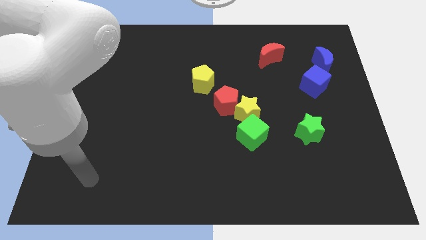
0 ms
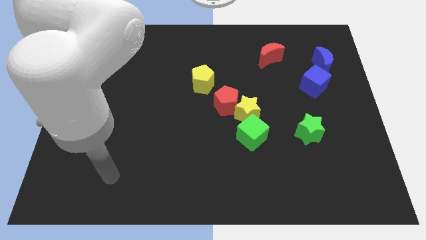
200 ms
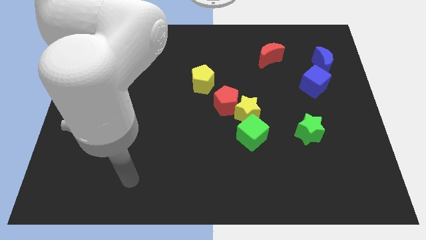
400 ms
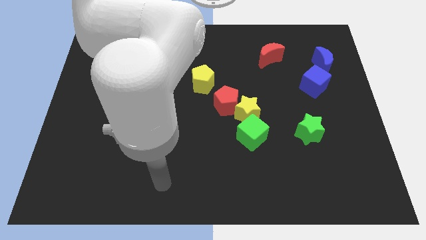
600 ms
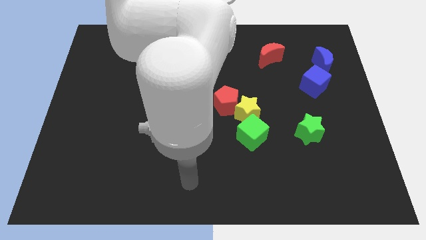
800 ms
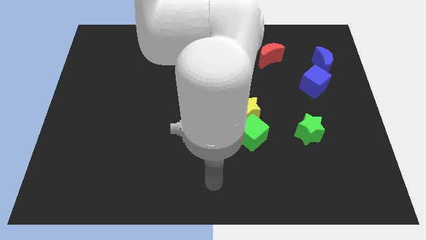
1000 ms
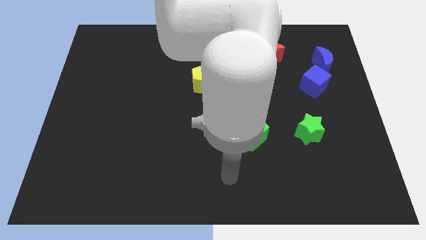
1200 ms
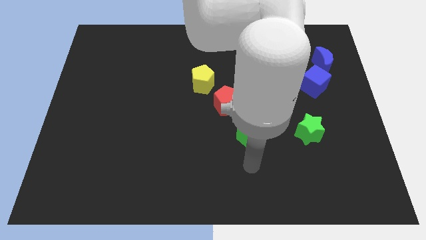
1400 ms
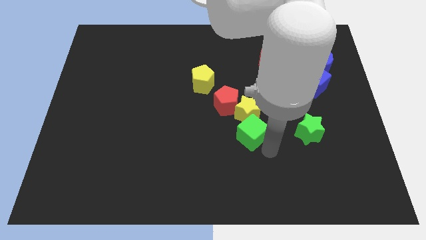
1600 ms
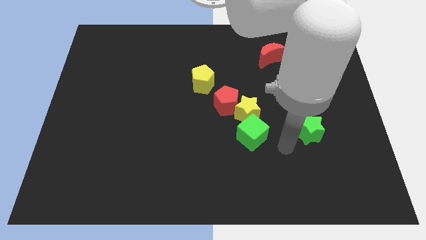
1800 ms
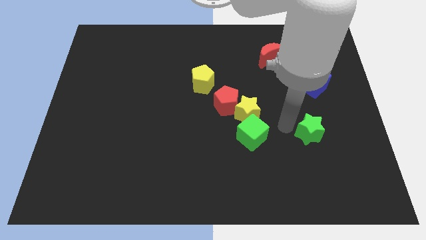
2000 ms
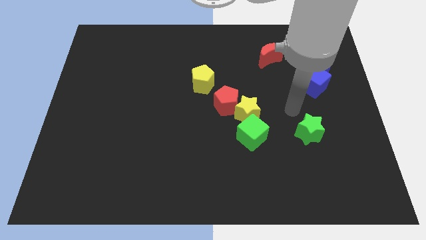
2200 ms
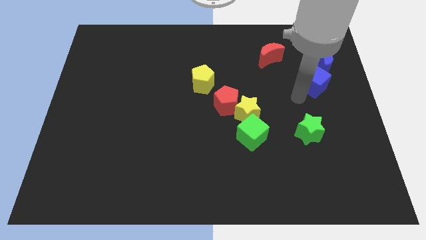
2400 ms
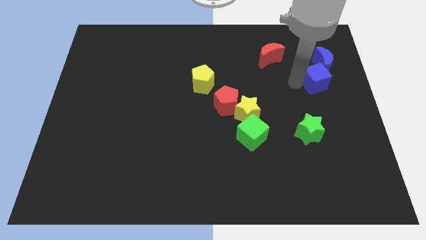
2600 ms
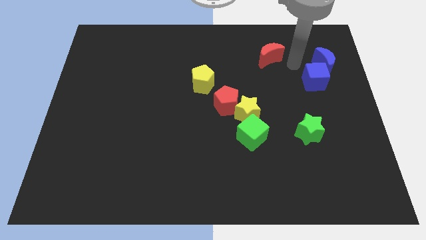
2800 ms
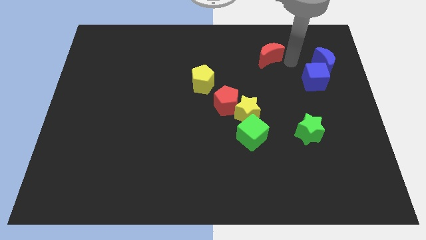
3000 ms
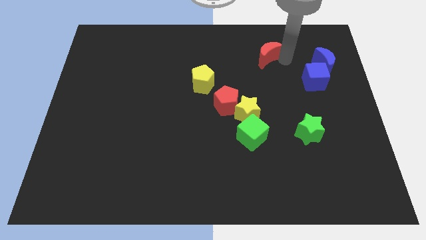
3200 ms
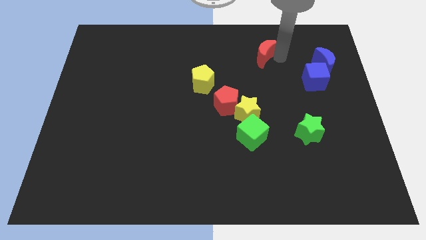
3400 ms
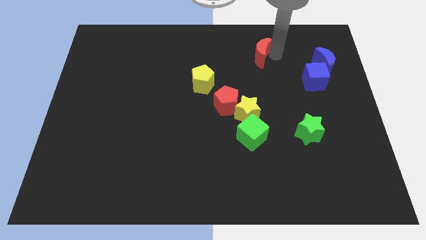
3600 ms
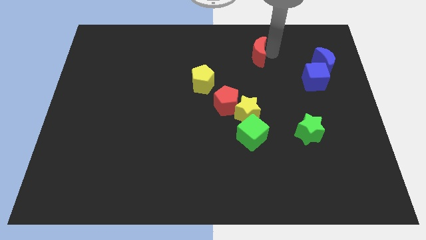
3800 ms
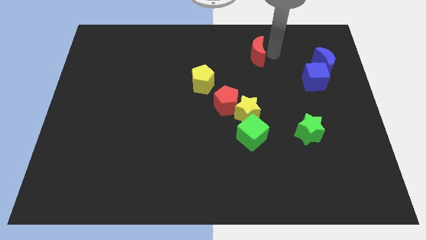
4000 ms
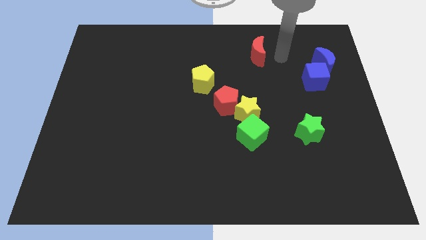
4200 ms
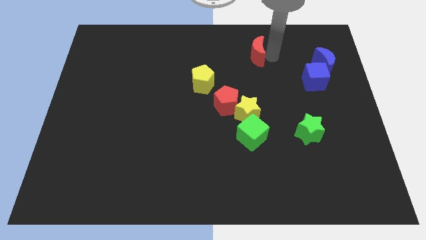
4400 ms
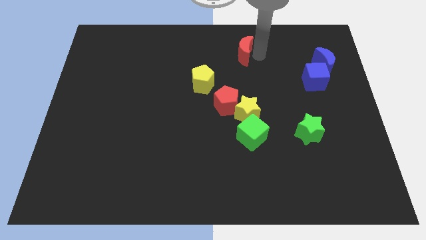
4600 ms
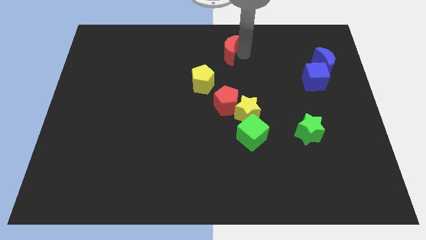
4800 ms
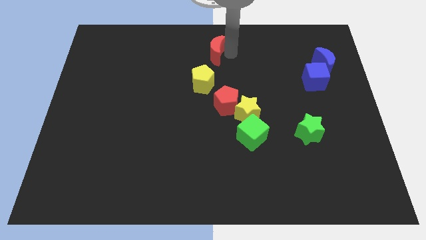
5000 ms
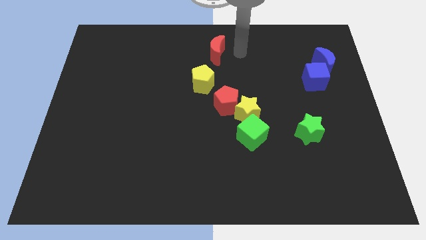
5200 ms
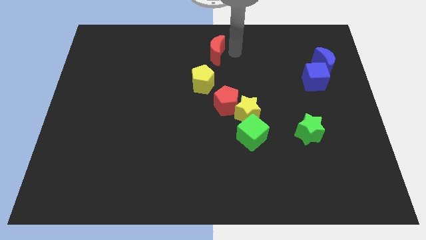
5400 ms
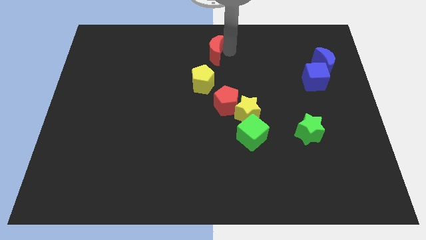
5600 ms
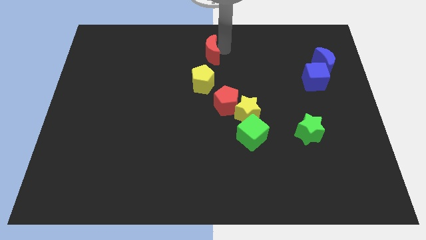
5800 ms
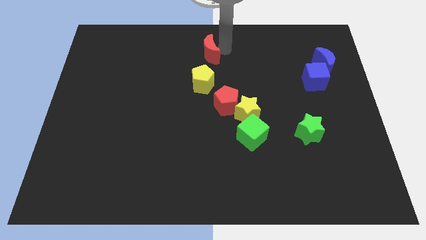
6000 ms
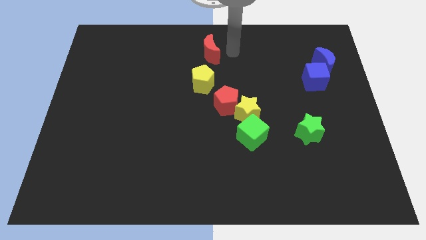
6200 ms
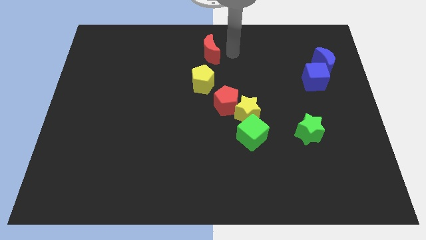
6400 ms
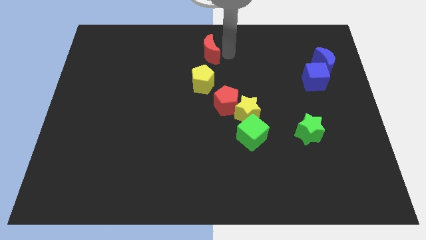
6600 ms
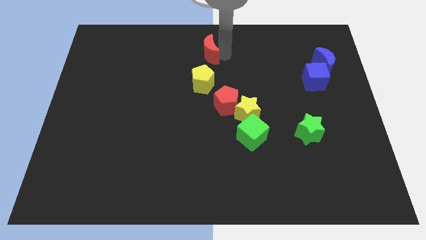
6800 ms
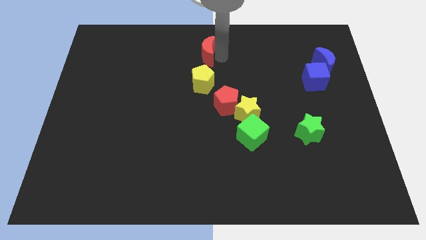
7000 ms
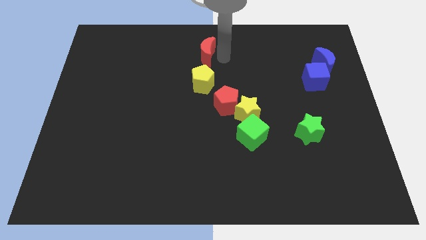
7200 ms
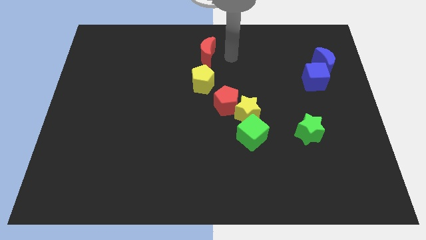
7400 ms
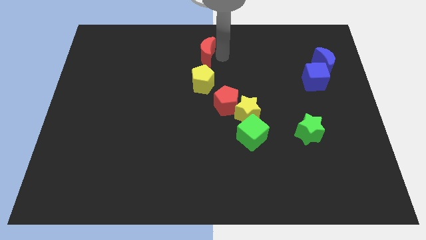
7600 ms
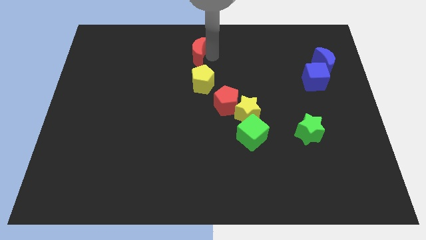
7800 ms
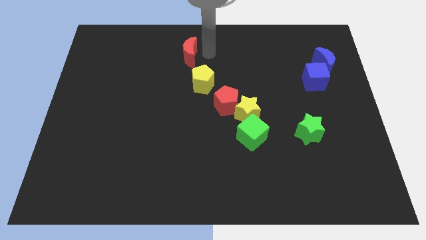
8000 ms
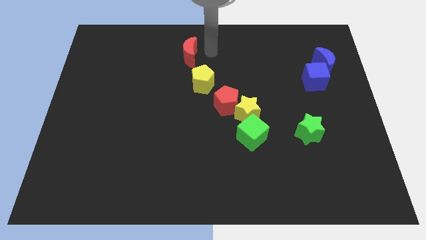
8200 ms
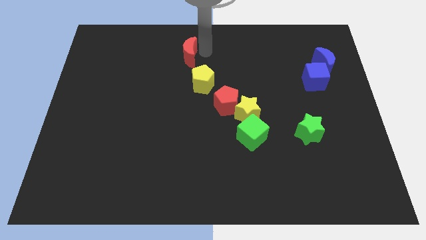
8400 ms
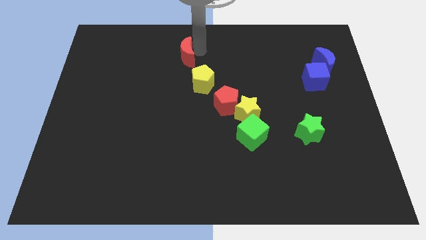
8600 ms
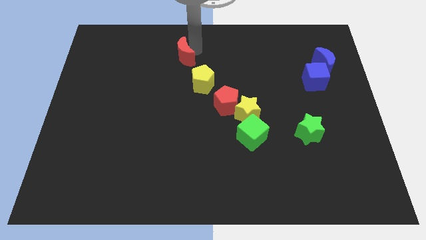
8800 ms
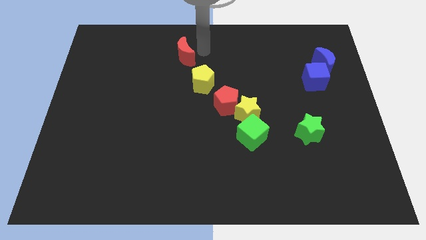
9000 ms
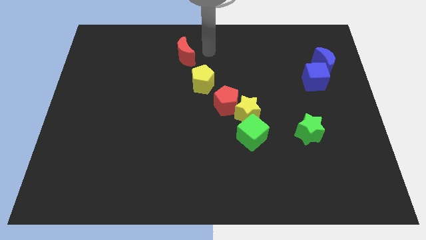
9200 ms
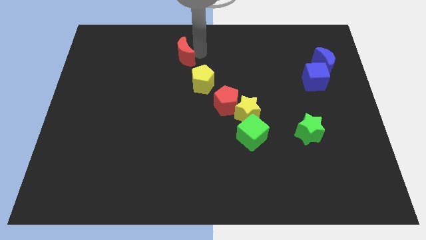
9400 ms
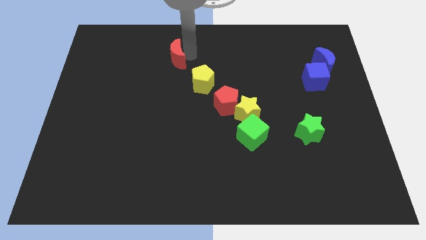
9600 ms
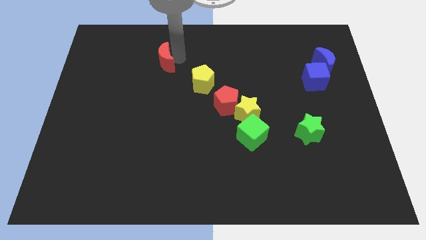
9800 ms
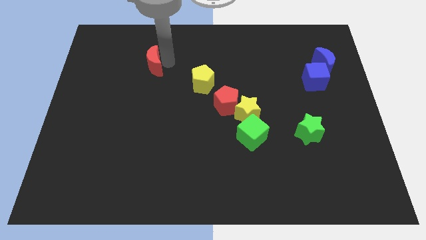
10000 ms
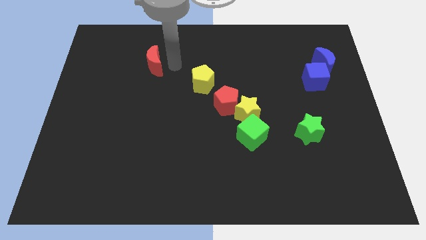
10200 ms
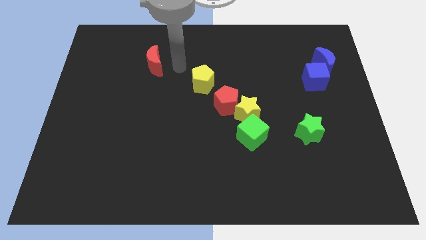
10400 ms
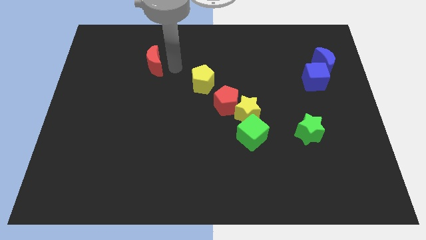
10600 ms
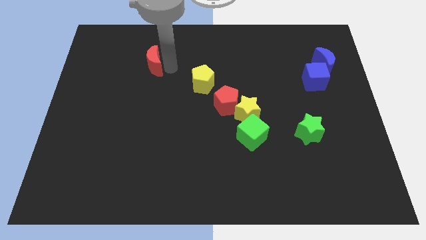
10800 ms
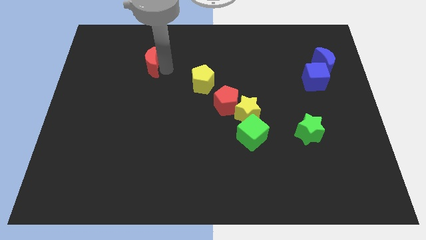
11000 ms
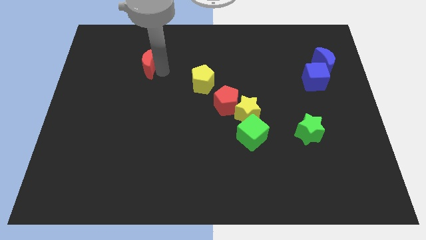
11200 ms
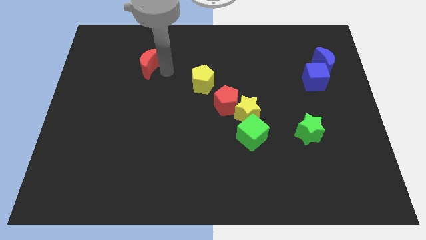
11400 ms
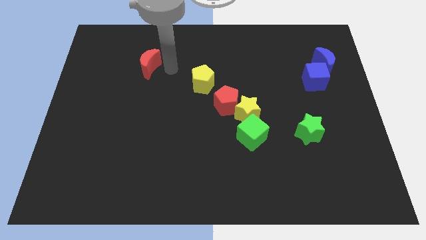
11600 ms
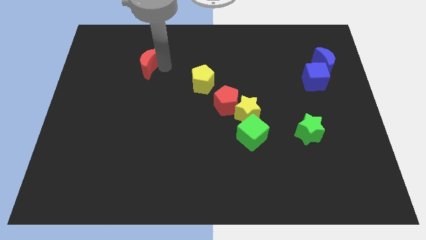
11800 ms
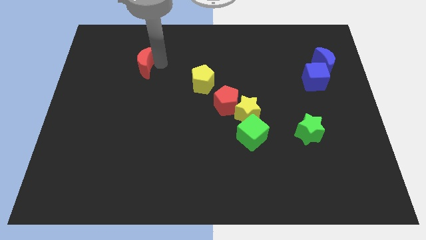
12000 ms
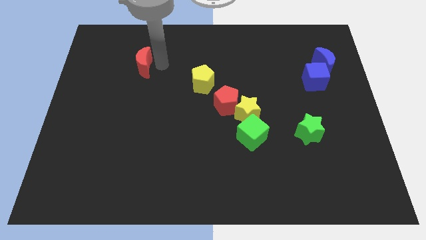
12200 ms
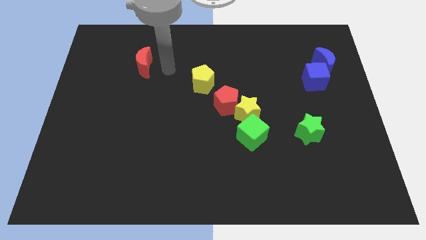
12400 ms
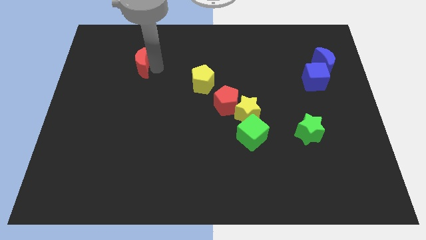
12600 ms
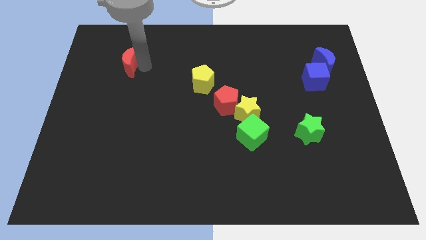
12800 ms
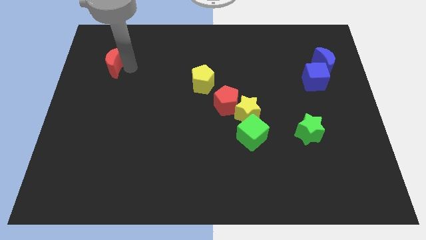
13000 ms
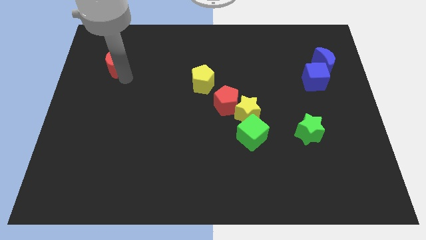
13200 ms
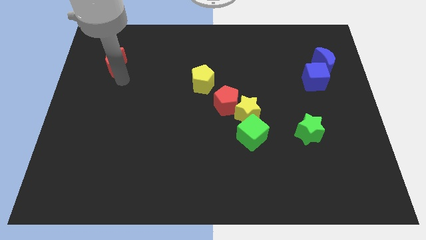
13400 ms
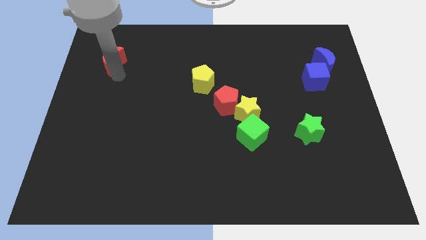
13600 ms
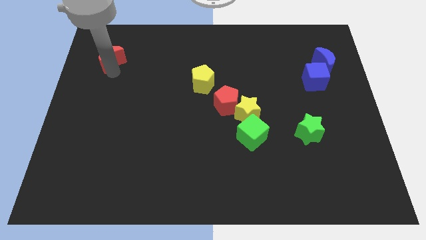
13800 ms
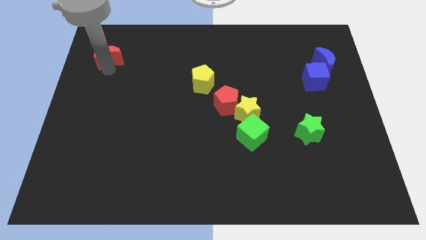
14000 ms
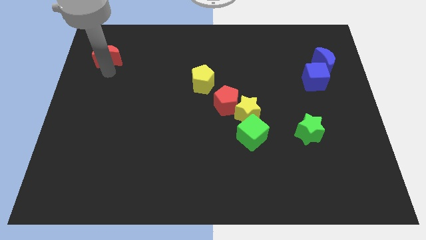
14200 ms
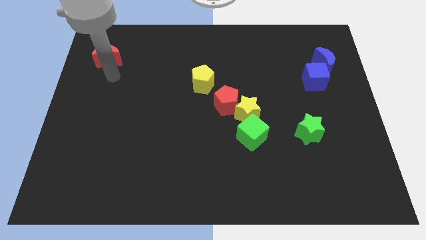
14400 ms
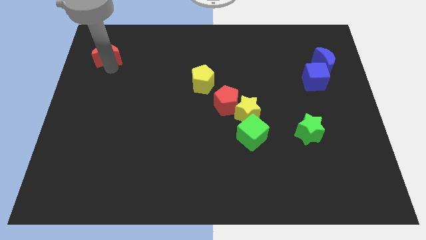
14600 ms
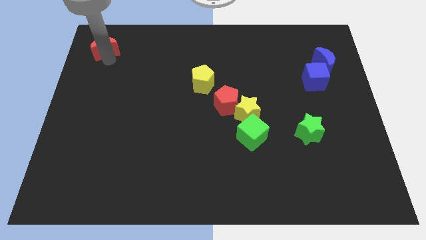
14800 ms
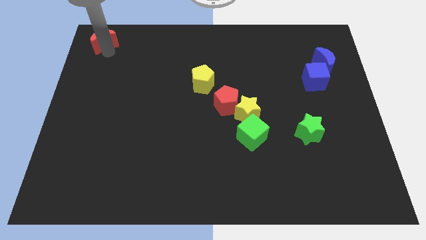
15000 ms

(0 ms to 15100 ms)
push the red moon to the top left
